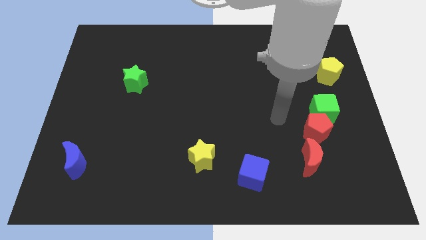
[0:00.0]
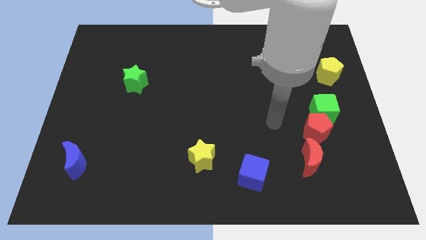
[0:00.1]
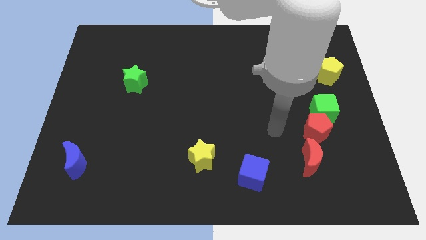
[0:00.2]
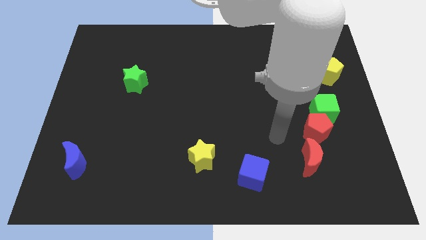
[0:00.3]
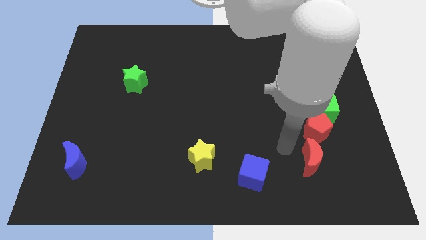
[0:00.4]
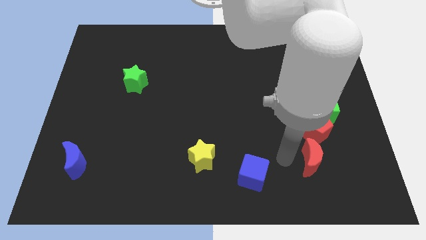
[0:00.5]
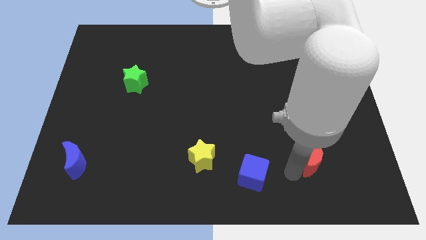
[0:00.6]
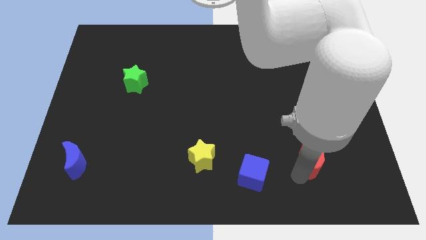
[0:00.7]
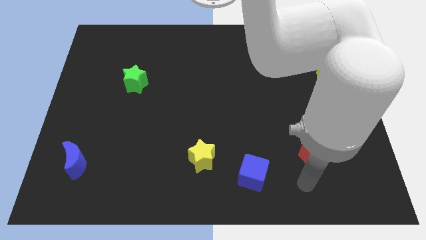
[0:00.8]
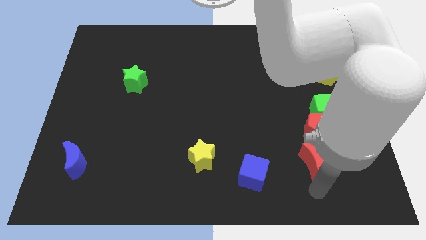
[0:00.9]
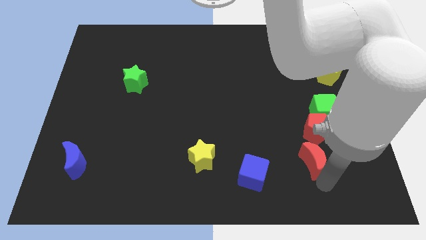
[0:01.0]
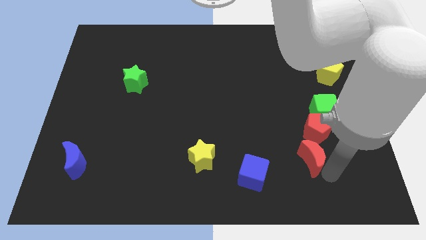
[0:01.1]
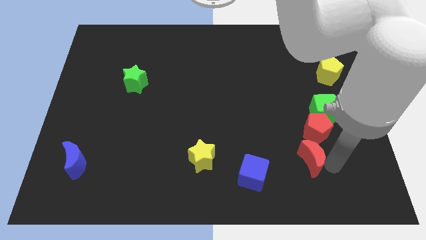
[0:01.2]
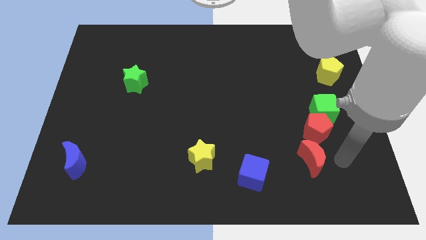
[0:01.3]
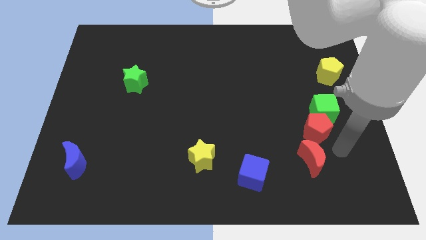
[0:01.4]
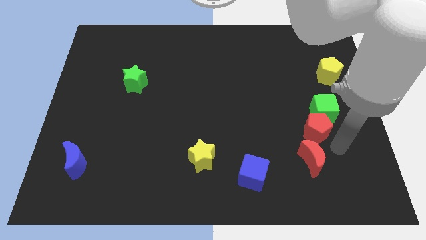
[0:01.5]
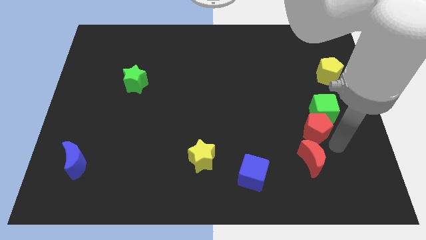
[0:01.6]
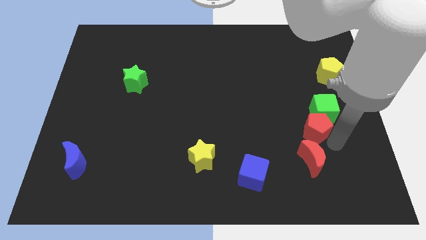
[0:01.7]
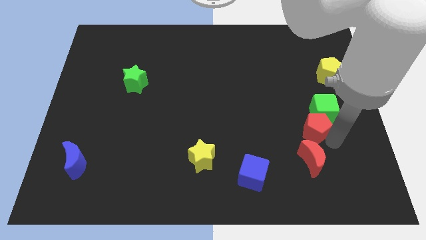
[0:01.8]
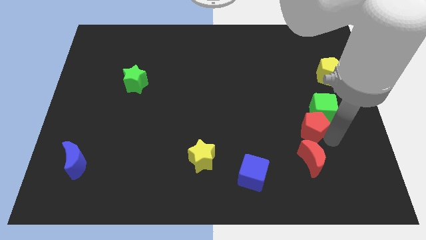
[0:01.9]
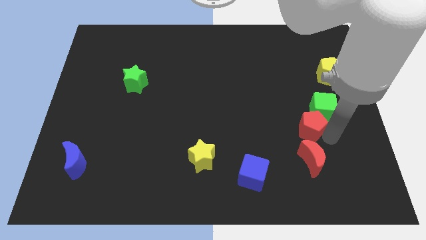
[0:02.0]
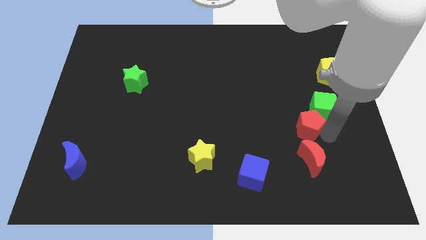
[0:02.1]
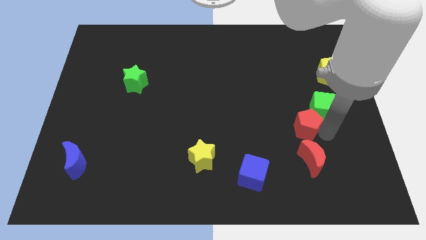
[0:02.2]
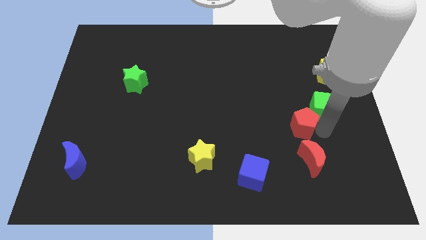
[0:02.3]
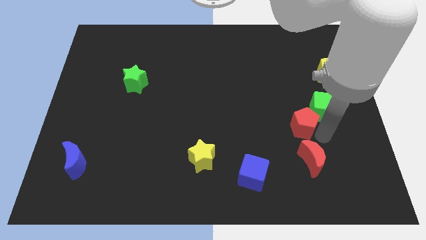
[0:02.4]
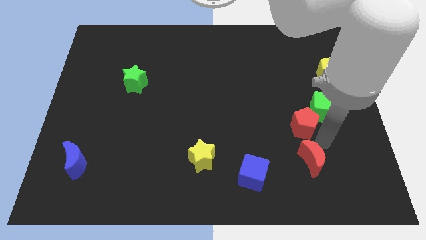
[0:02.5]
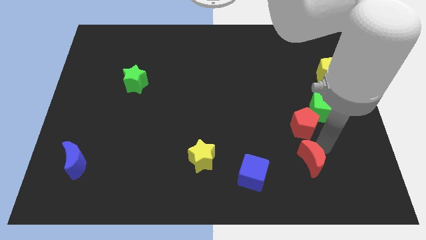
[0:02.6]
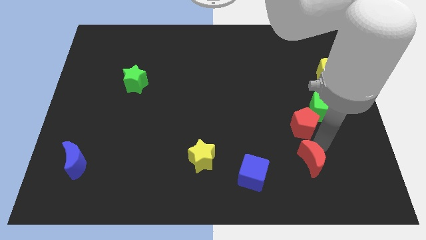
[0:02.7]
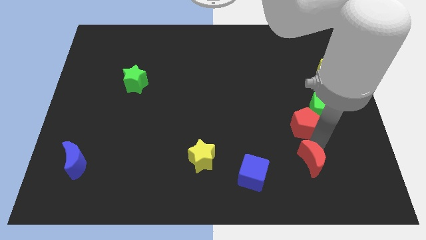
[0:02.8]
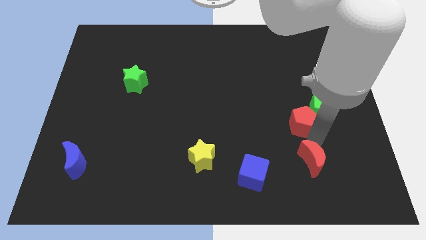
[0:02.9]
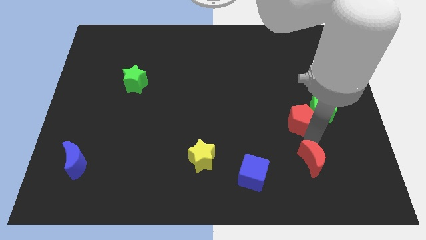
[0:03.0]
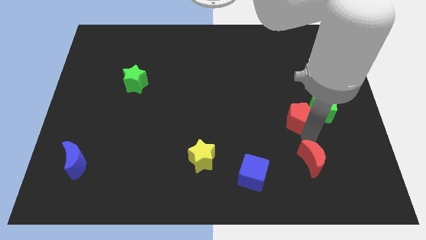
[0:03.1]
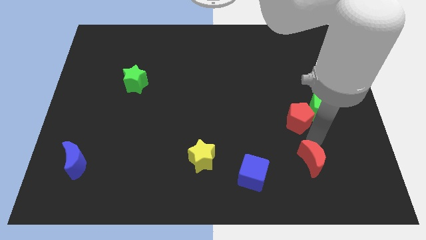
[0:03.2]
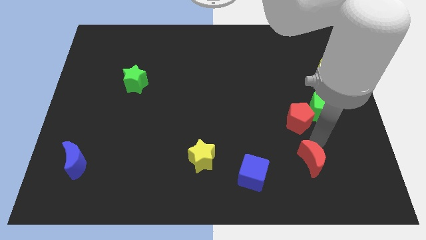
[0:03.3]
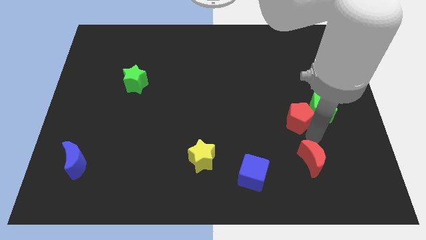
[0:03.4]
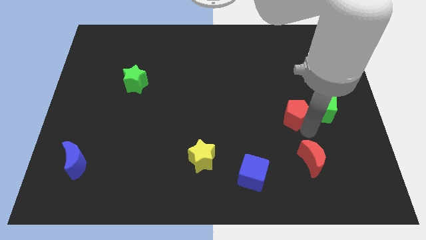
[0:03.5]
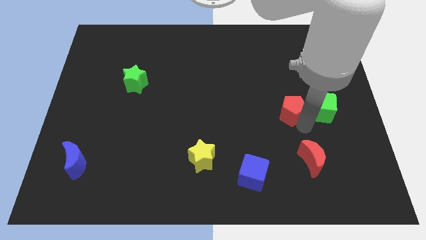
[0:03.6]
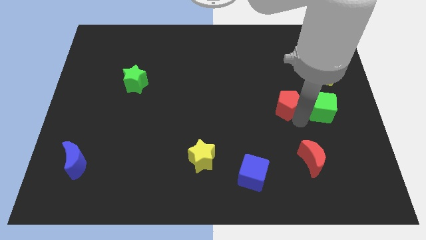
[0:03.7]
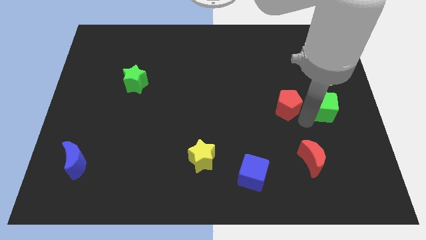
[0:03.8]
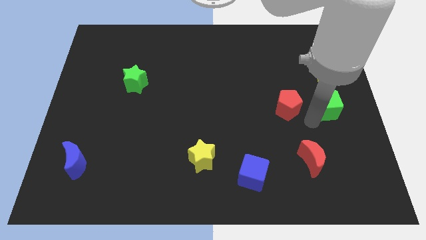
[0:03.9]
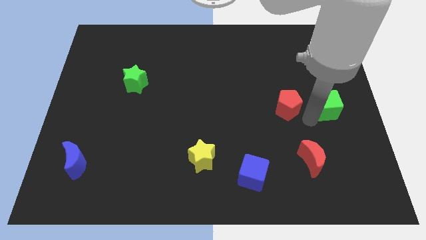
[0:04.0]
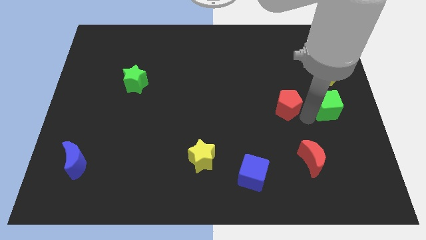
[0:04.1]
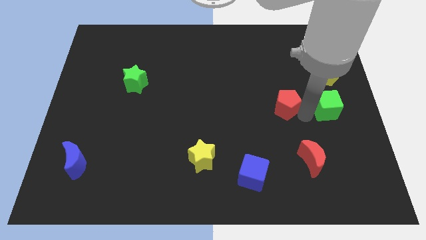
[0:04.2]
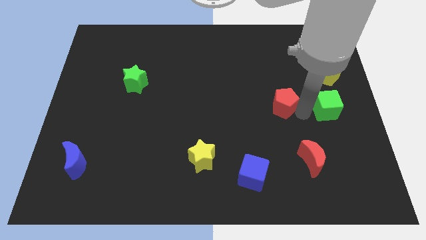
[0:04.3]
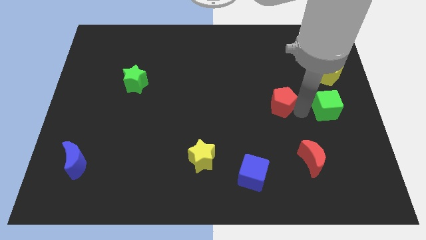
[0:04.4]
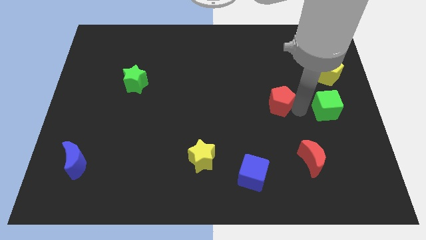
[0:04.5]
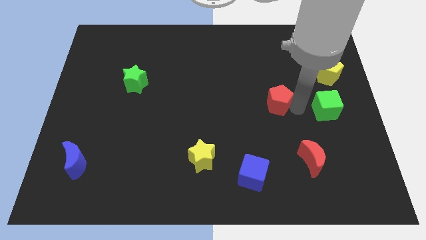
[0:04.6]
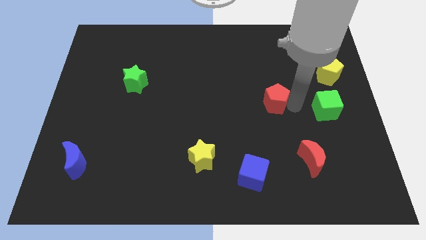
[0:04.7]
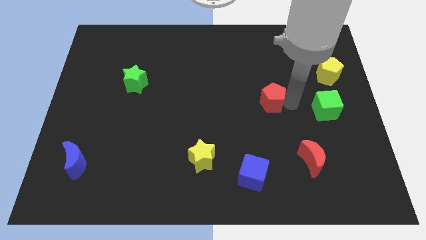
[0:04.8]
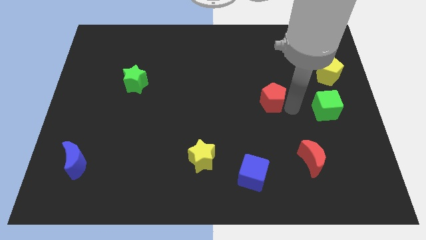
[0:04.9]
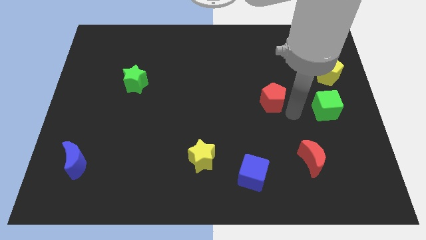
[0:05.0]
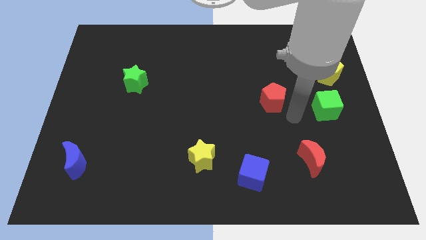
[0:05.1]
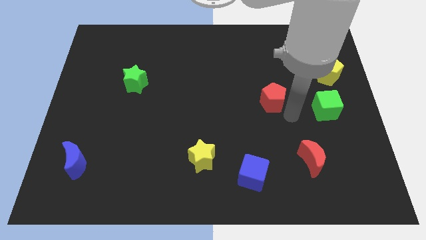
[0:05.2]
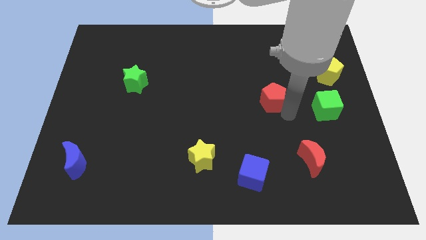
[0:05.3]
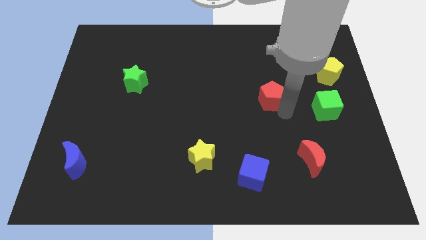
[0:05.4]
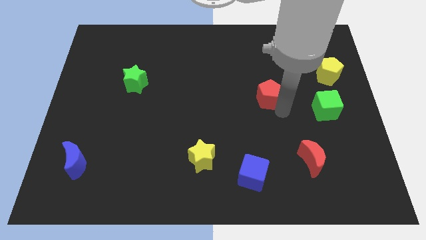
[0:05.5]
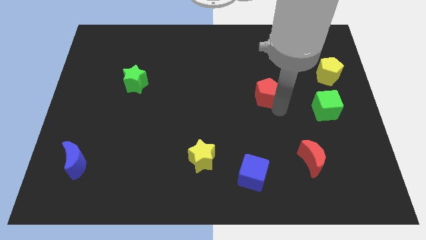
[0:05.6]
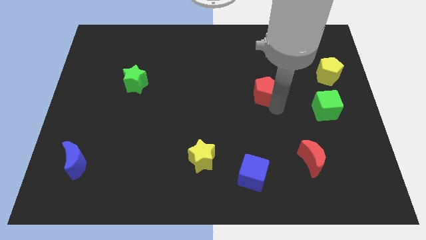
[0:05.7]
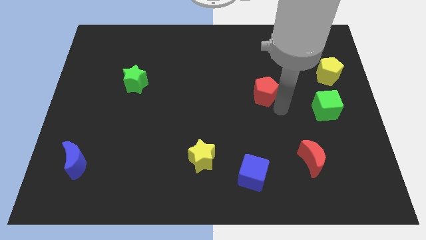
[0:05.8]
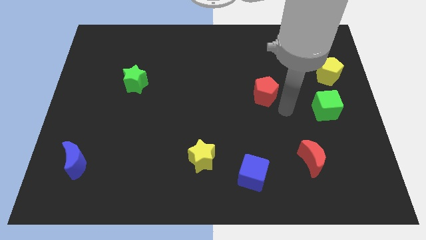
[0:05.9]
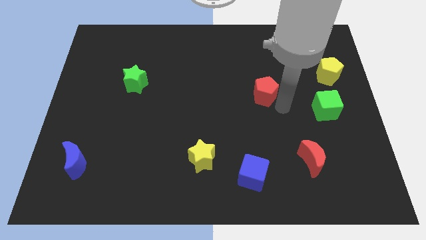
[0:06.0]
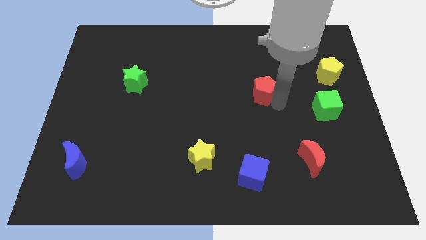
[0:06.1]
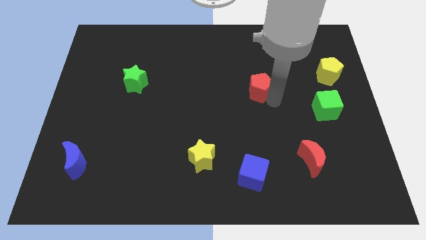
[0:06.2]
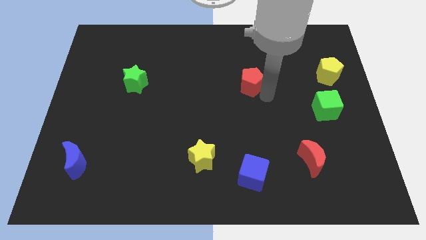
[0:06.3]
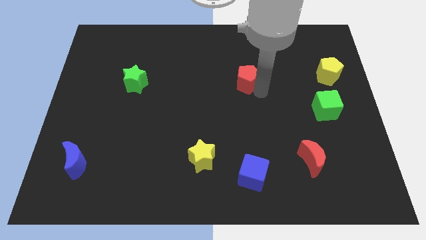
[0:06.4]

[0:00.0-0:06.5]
move the red pentagon upwards and to the left

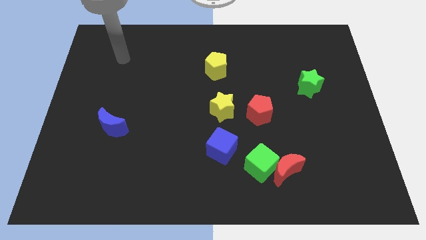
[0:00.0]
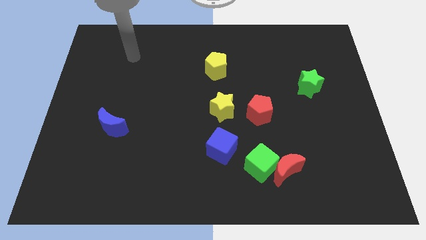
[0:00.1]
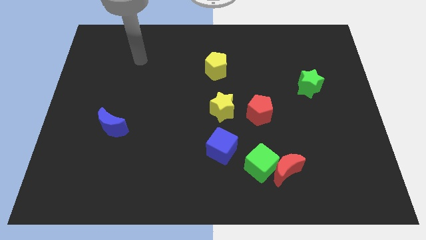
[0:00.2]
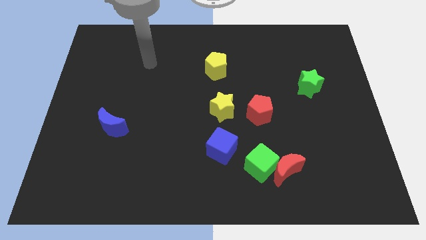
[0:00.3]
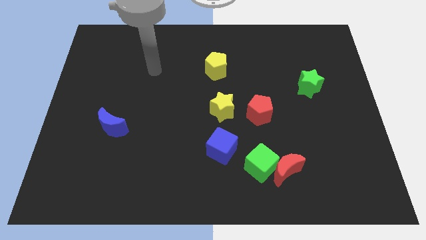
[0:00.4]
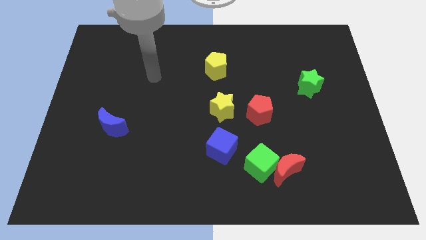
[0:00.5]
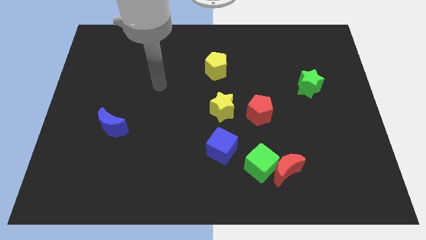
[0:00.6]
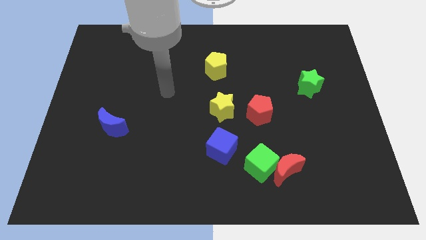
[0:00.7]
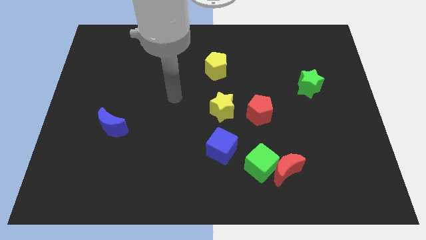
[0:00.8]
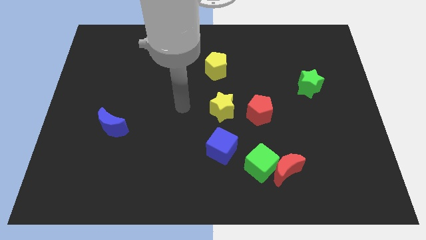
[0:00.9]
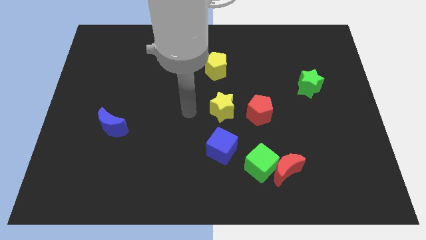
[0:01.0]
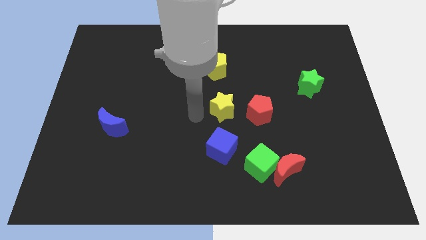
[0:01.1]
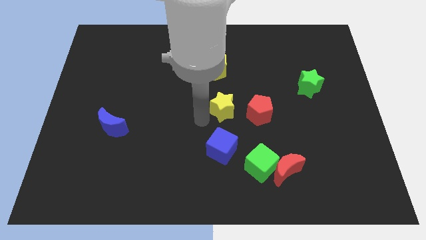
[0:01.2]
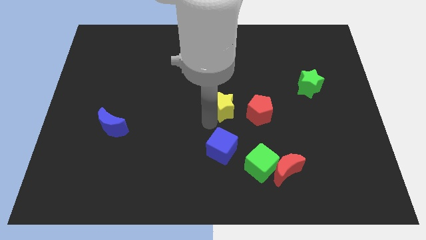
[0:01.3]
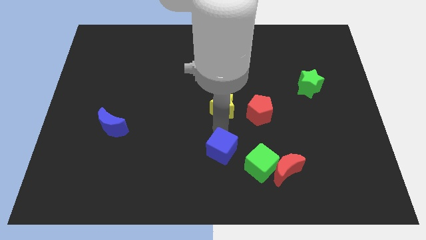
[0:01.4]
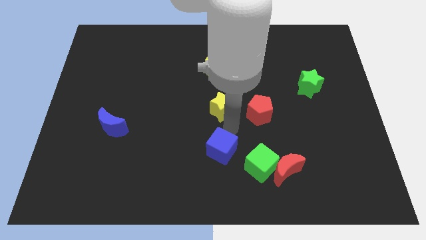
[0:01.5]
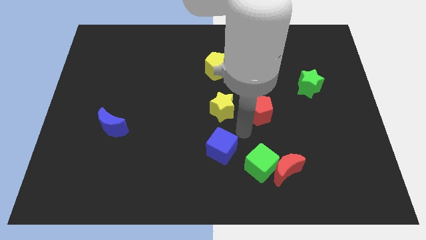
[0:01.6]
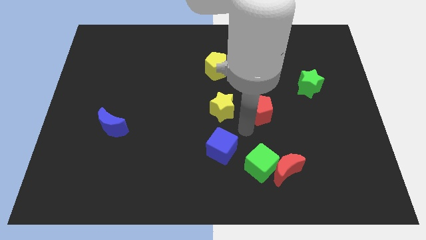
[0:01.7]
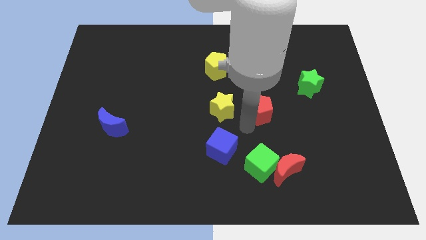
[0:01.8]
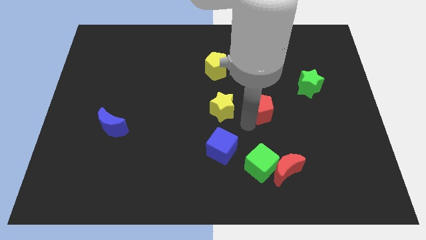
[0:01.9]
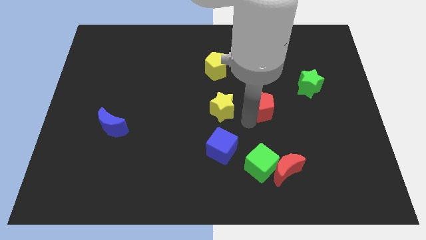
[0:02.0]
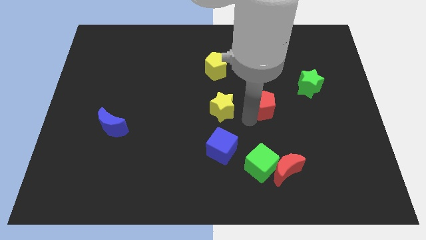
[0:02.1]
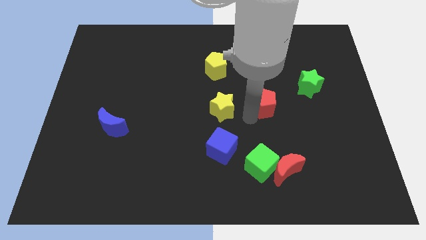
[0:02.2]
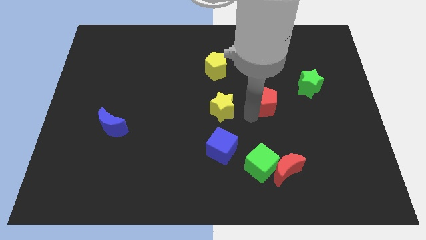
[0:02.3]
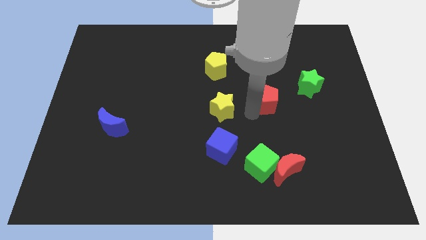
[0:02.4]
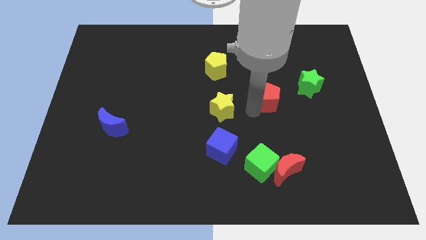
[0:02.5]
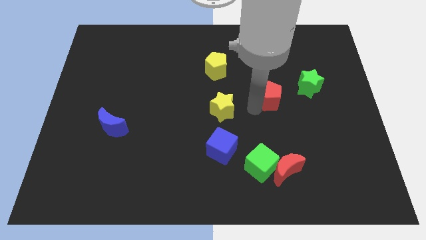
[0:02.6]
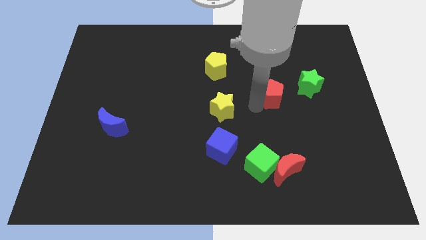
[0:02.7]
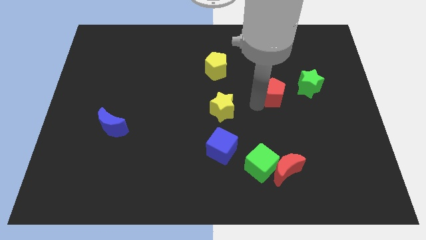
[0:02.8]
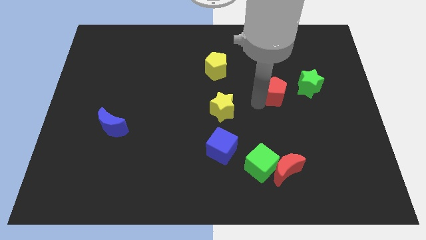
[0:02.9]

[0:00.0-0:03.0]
push the red pentagon a bit upwards and to the right
